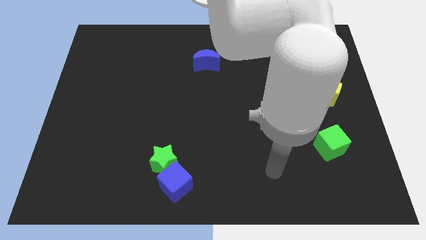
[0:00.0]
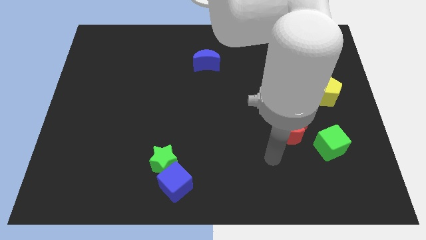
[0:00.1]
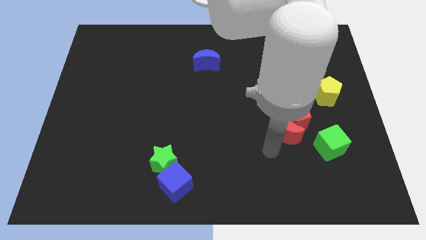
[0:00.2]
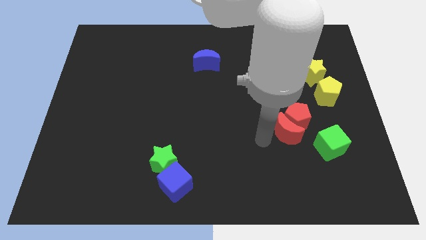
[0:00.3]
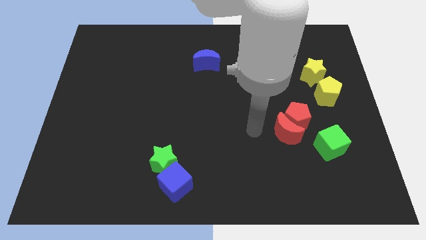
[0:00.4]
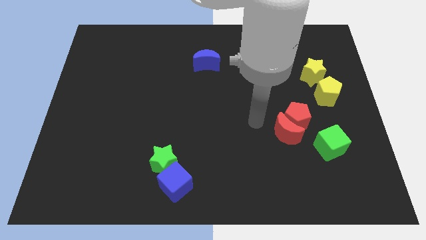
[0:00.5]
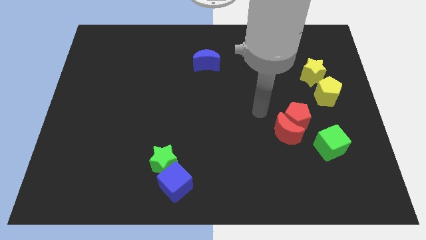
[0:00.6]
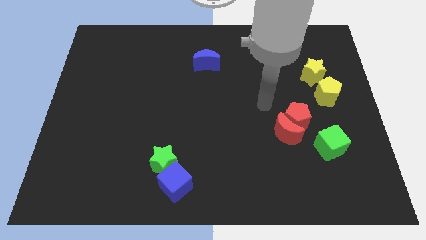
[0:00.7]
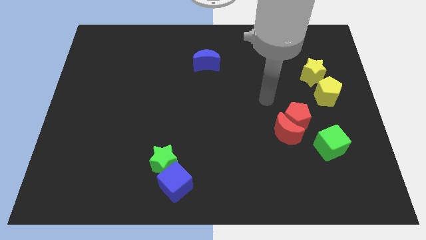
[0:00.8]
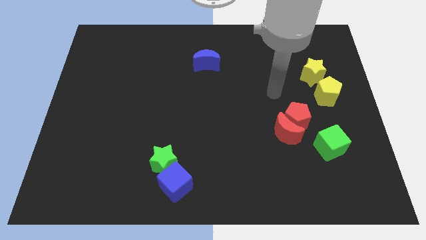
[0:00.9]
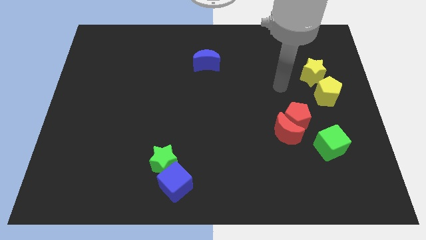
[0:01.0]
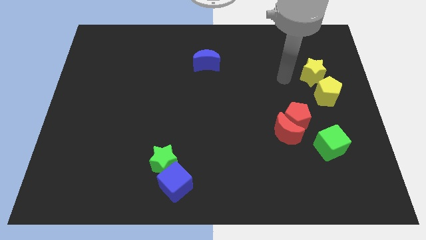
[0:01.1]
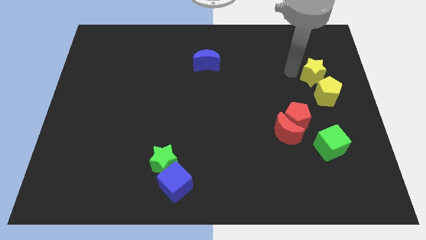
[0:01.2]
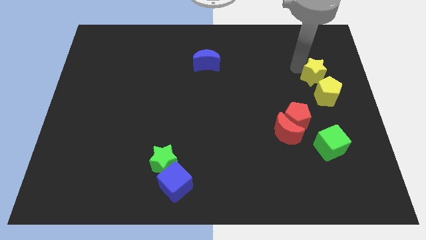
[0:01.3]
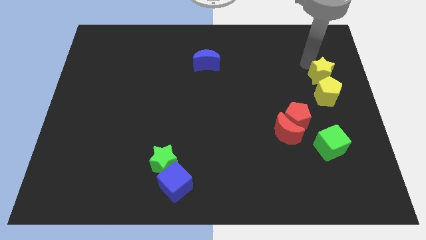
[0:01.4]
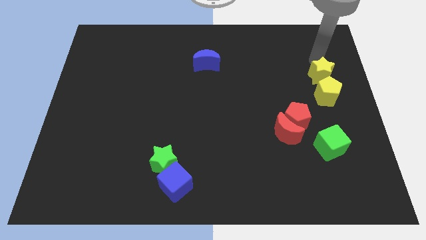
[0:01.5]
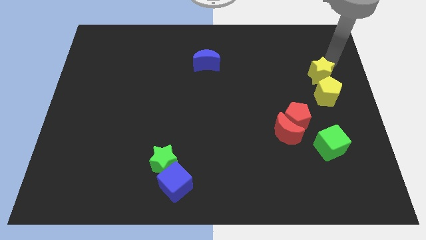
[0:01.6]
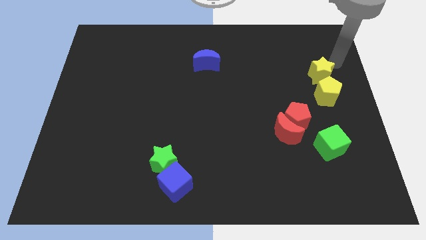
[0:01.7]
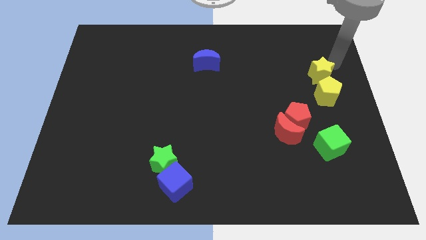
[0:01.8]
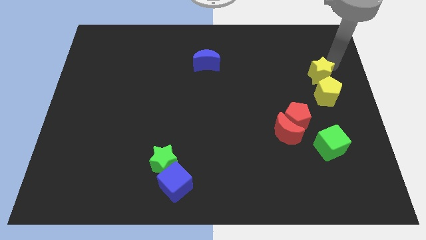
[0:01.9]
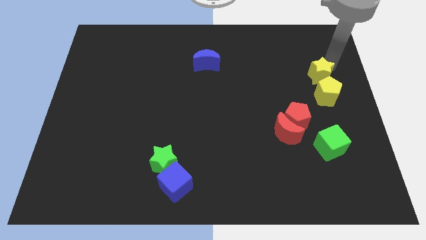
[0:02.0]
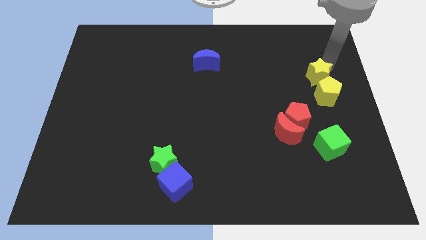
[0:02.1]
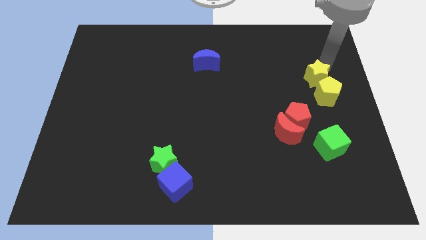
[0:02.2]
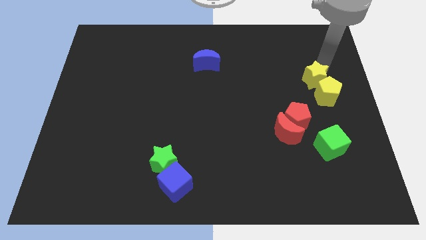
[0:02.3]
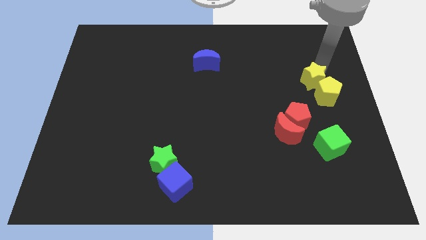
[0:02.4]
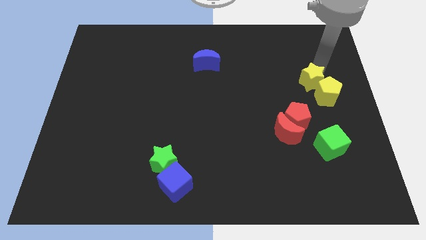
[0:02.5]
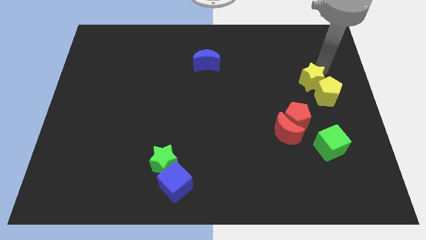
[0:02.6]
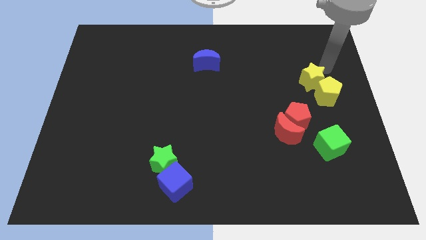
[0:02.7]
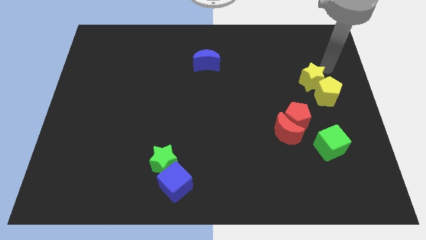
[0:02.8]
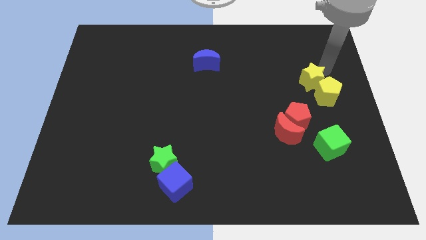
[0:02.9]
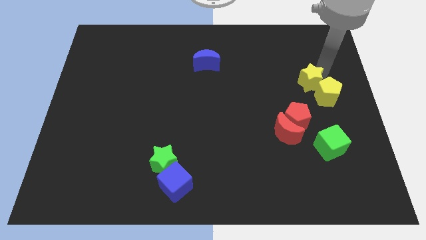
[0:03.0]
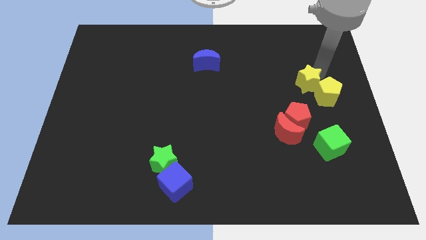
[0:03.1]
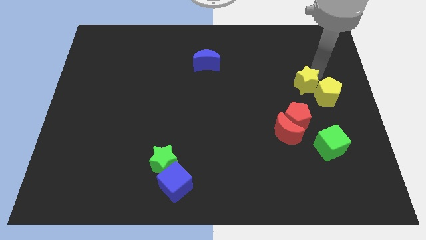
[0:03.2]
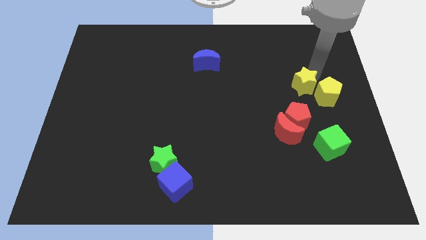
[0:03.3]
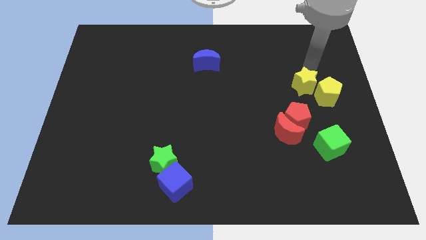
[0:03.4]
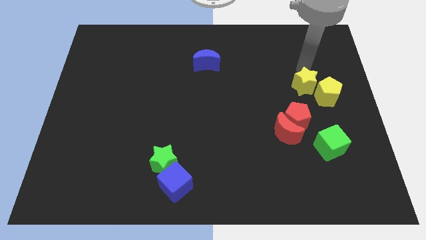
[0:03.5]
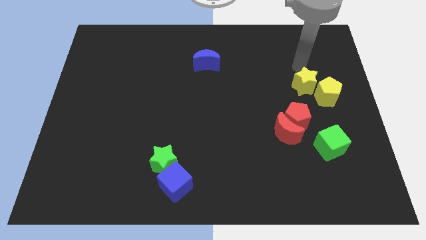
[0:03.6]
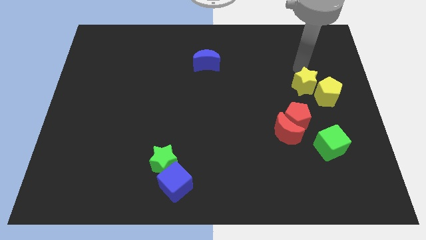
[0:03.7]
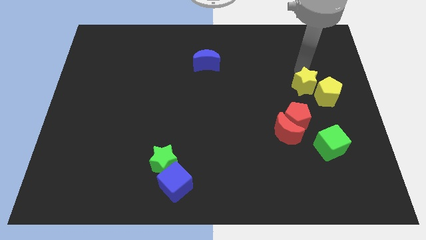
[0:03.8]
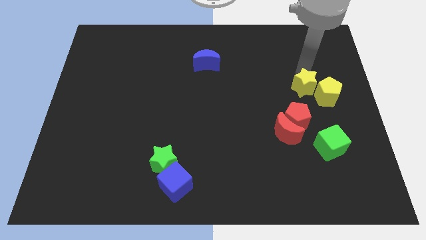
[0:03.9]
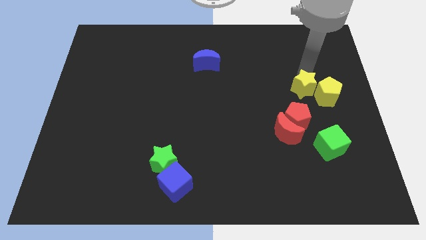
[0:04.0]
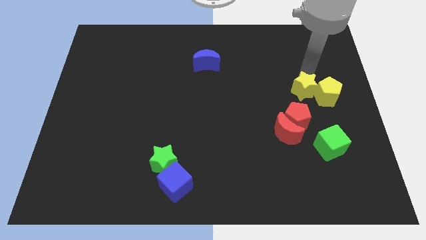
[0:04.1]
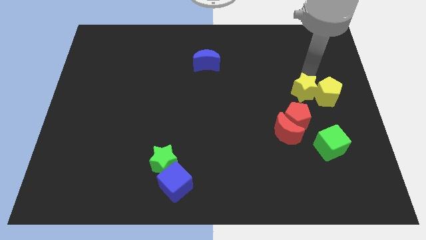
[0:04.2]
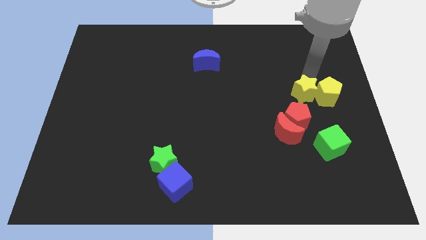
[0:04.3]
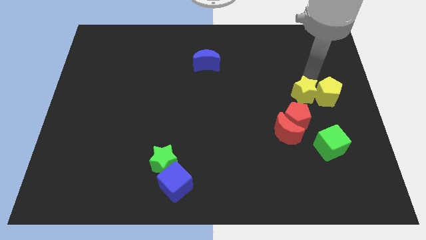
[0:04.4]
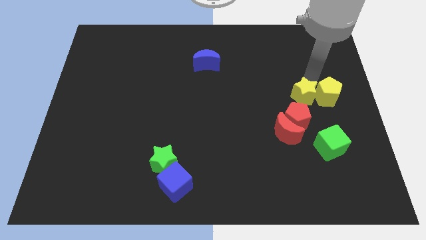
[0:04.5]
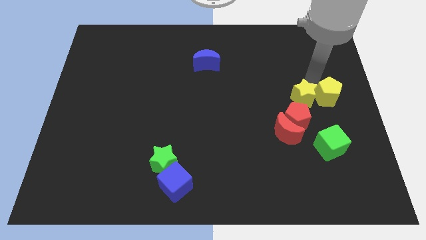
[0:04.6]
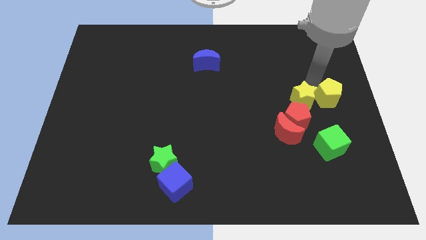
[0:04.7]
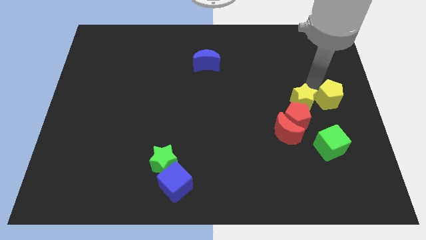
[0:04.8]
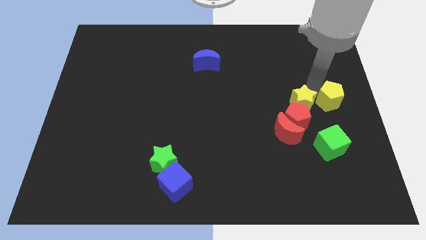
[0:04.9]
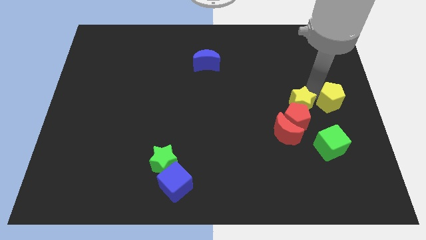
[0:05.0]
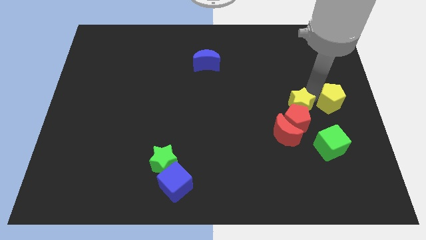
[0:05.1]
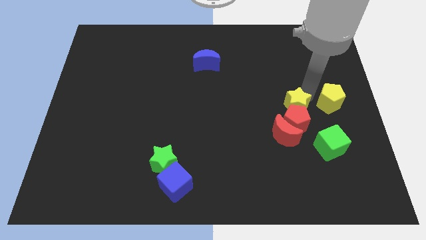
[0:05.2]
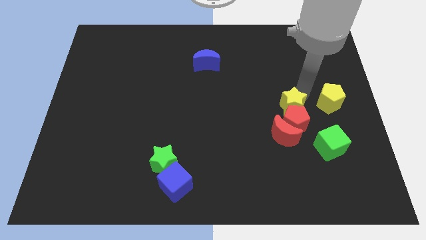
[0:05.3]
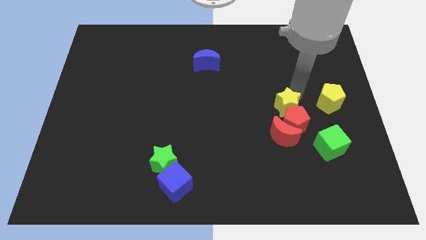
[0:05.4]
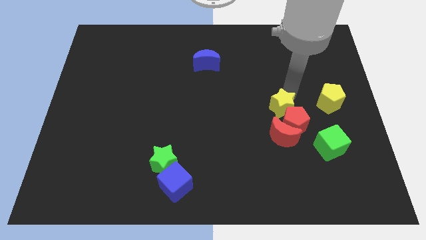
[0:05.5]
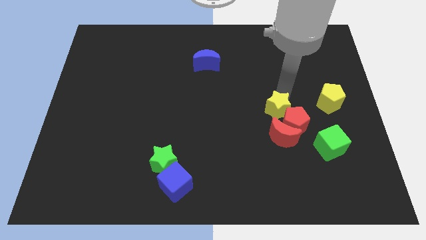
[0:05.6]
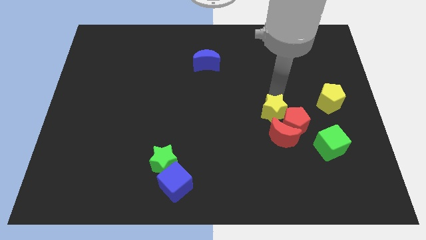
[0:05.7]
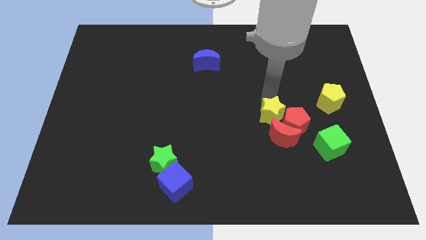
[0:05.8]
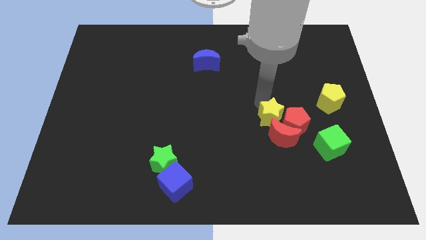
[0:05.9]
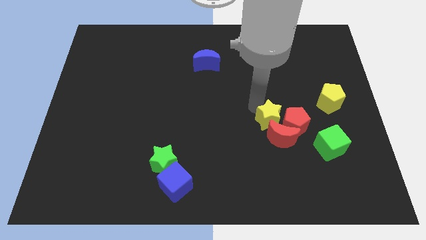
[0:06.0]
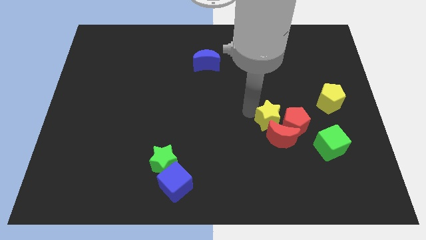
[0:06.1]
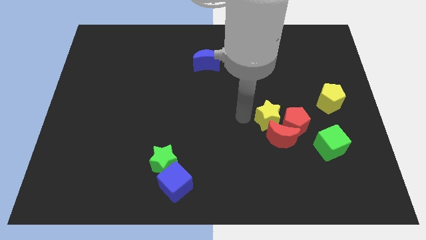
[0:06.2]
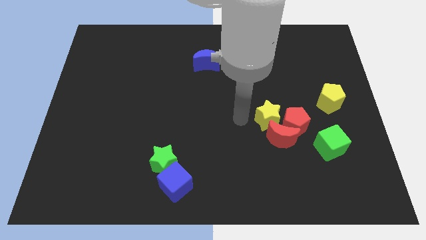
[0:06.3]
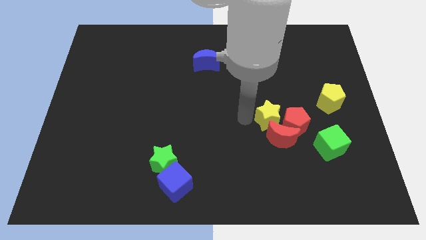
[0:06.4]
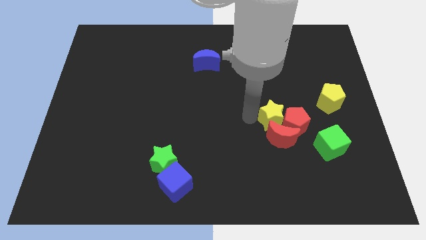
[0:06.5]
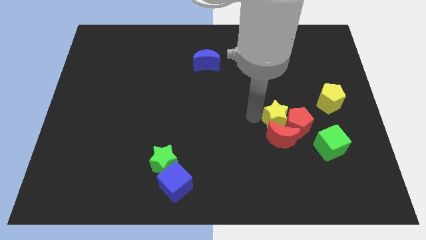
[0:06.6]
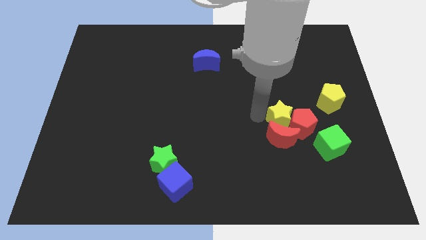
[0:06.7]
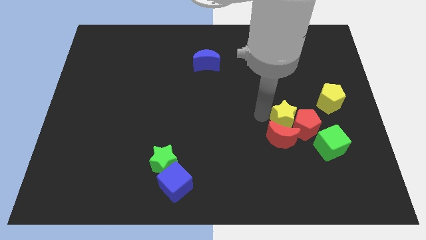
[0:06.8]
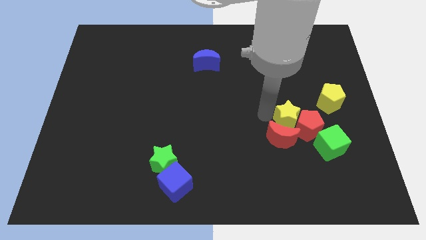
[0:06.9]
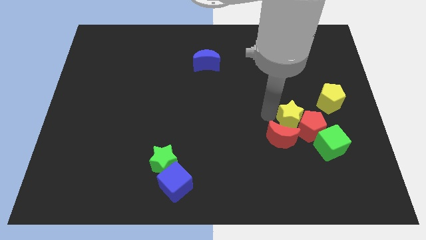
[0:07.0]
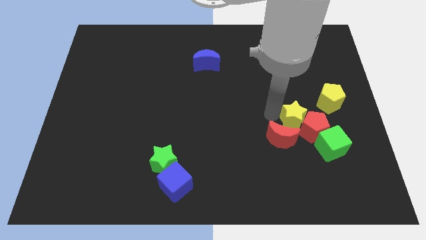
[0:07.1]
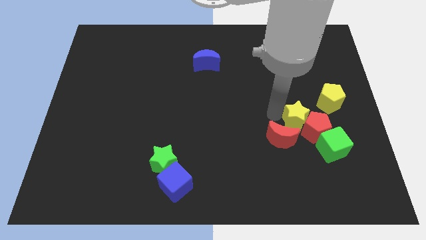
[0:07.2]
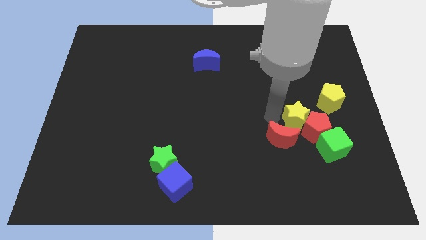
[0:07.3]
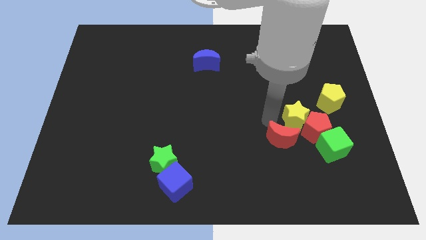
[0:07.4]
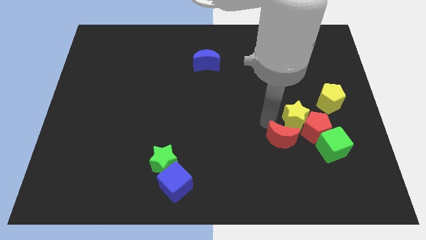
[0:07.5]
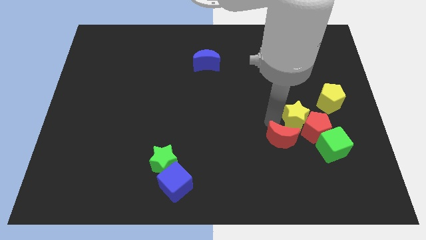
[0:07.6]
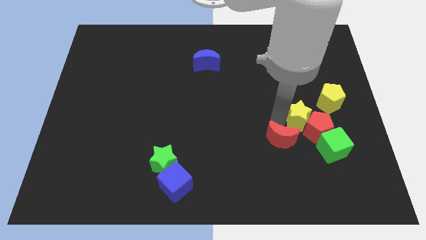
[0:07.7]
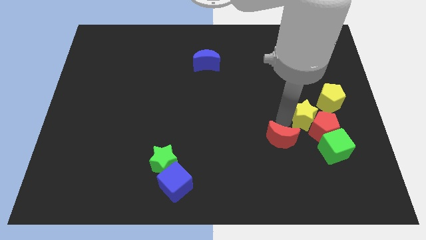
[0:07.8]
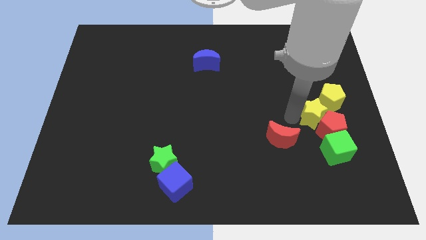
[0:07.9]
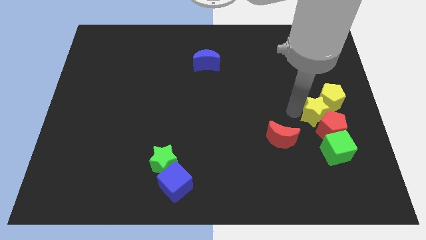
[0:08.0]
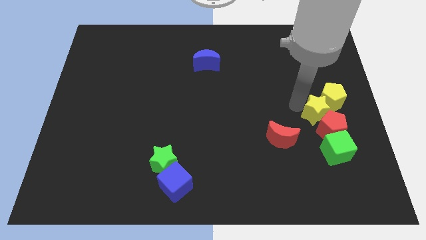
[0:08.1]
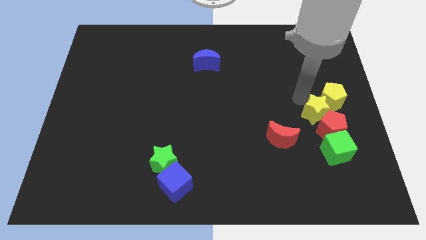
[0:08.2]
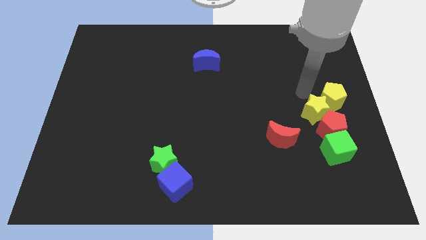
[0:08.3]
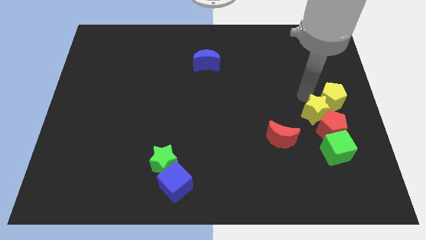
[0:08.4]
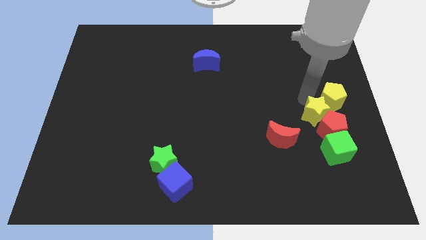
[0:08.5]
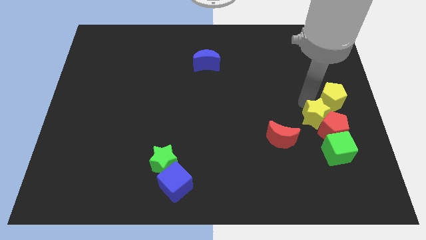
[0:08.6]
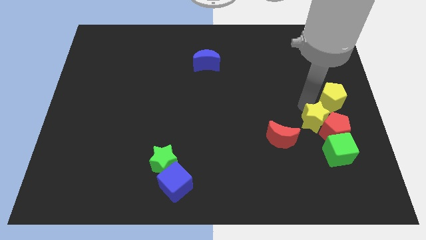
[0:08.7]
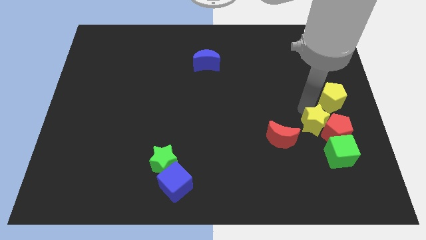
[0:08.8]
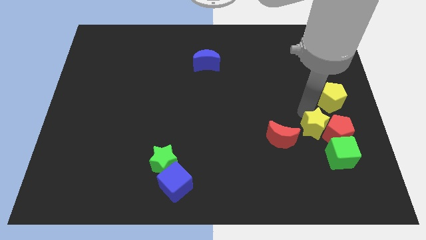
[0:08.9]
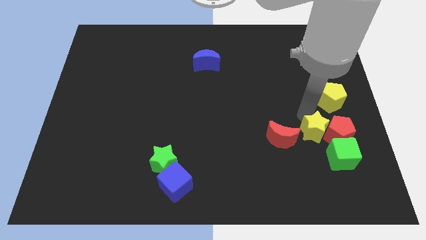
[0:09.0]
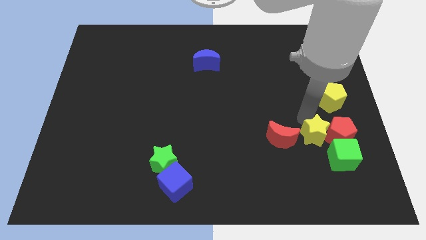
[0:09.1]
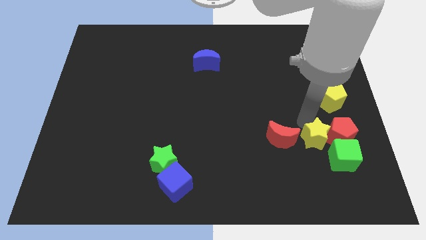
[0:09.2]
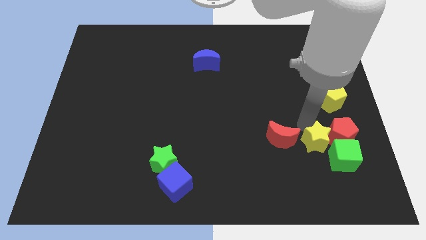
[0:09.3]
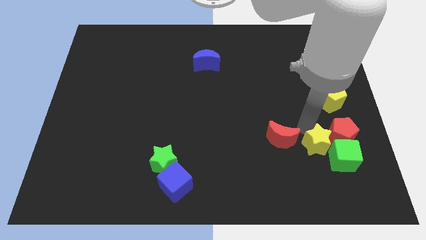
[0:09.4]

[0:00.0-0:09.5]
put the yellow star next to the green cube
